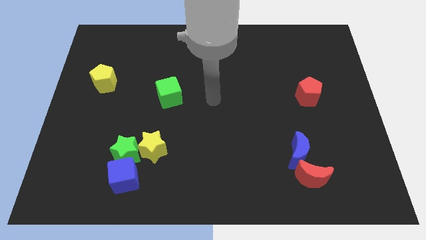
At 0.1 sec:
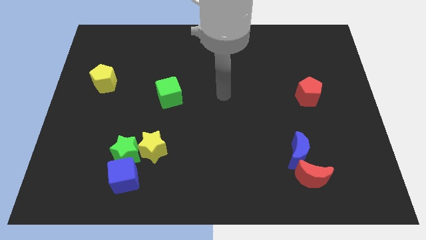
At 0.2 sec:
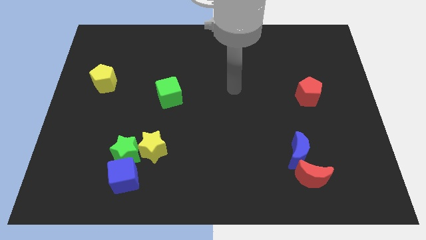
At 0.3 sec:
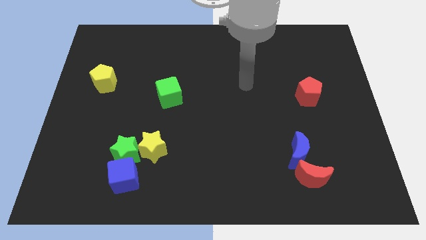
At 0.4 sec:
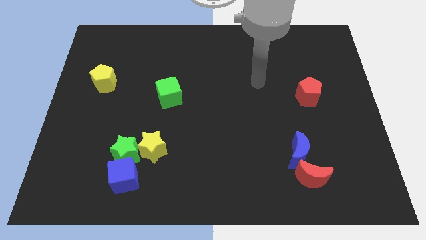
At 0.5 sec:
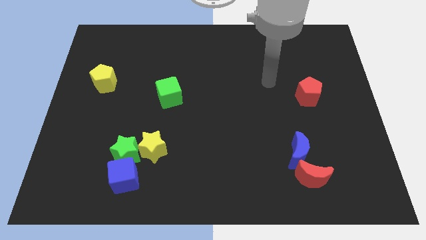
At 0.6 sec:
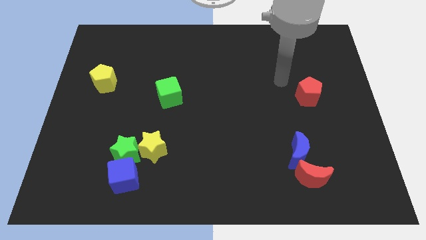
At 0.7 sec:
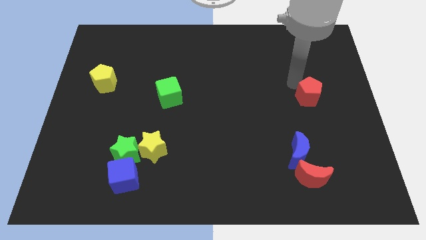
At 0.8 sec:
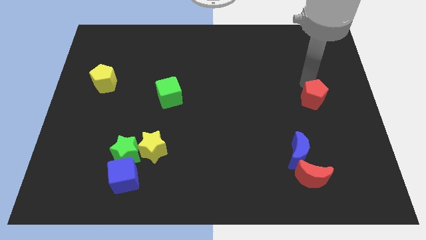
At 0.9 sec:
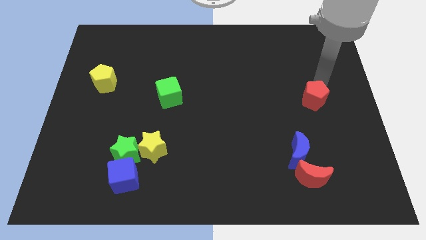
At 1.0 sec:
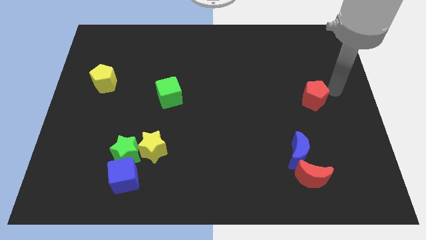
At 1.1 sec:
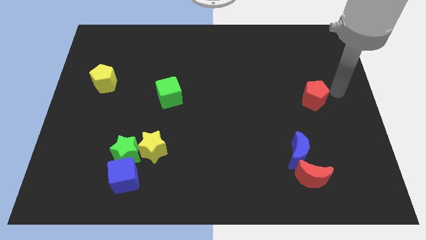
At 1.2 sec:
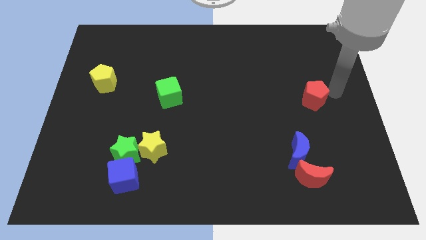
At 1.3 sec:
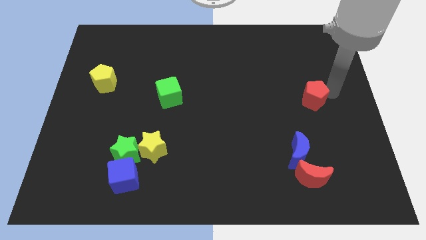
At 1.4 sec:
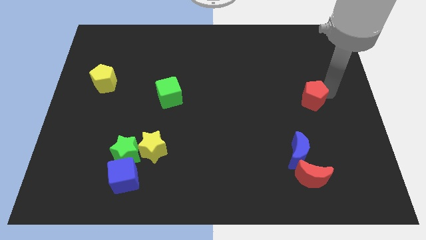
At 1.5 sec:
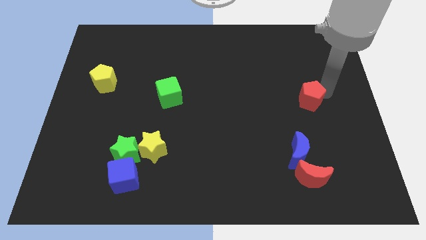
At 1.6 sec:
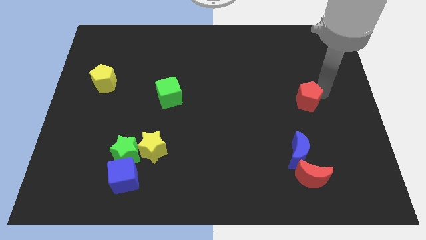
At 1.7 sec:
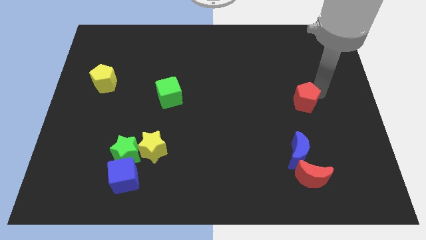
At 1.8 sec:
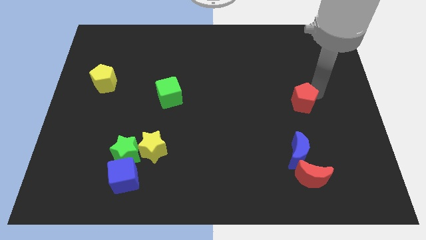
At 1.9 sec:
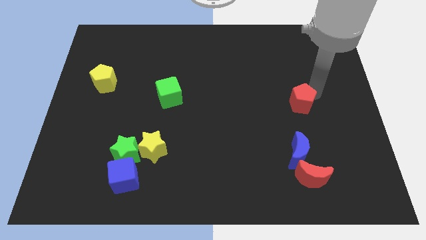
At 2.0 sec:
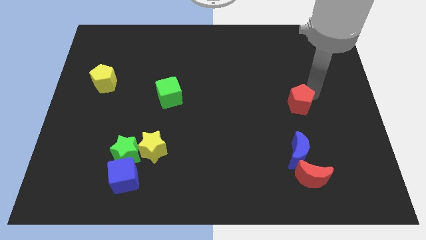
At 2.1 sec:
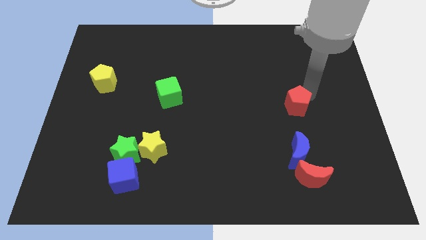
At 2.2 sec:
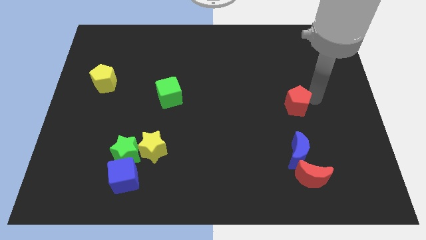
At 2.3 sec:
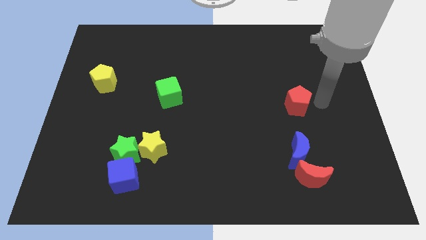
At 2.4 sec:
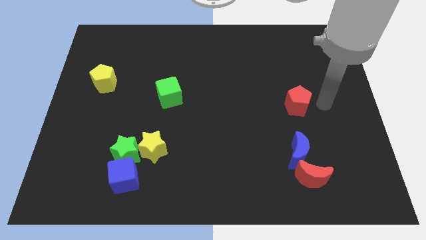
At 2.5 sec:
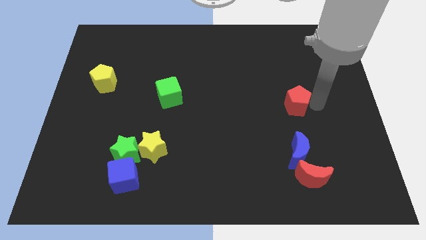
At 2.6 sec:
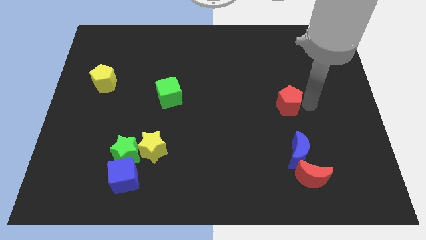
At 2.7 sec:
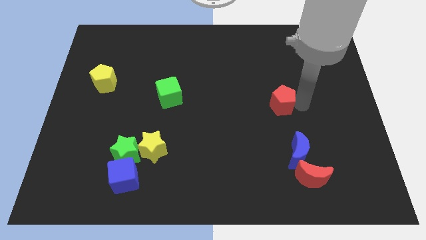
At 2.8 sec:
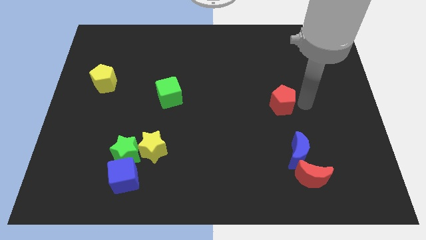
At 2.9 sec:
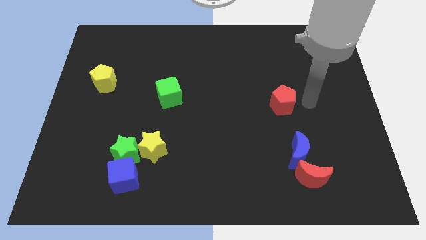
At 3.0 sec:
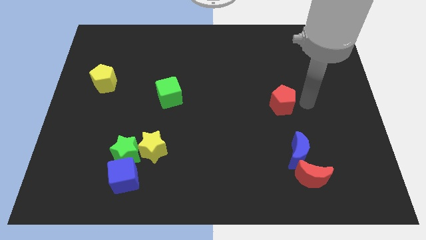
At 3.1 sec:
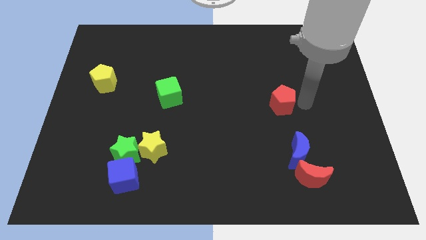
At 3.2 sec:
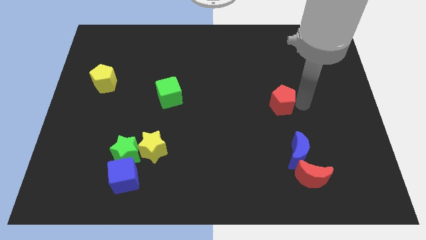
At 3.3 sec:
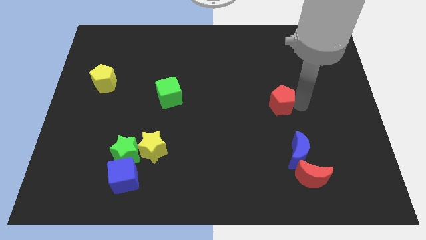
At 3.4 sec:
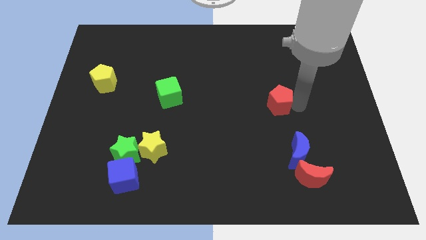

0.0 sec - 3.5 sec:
slightly move the red pentagon to the left

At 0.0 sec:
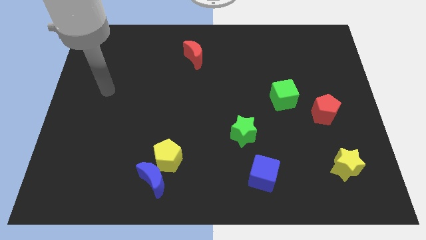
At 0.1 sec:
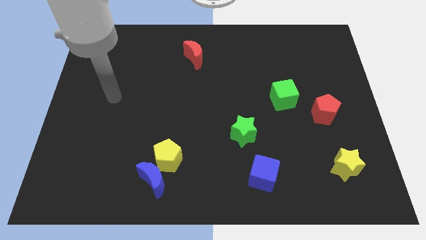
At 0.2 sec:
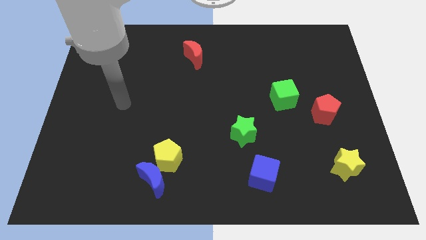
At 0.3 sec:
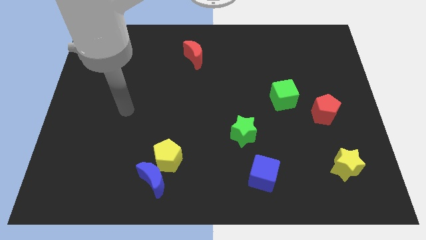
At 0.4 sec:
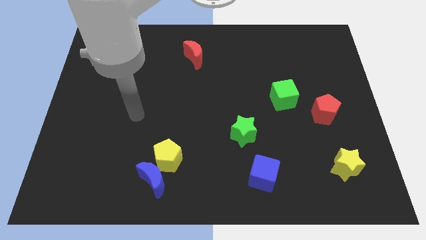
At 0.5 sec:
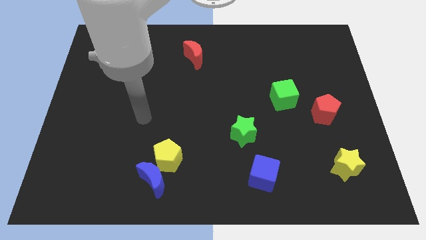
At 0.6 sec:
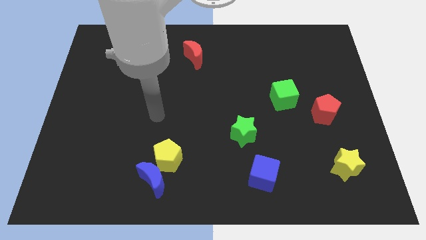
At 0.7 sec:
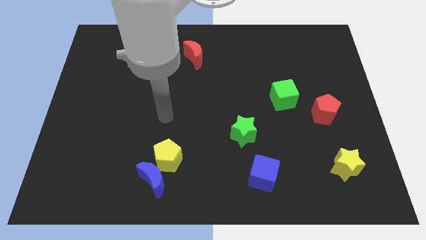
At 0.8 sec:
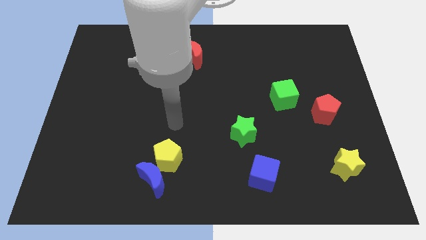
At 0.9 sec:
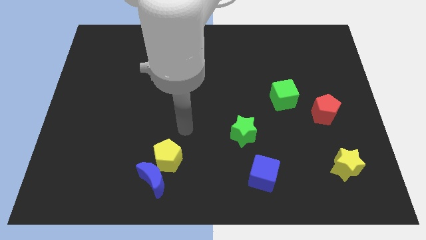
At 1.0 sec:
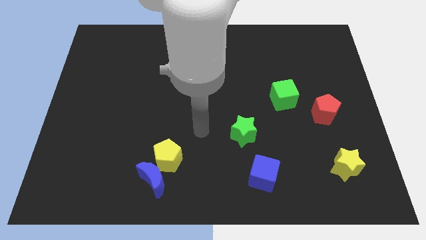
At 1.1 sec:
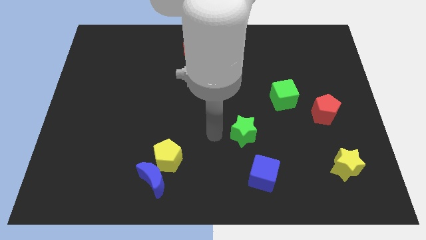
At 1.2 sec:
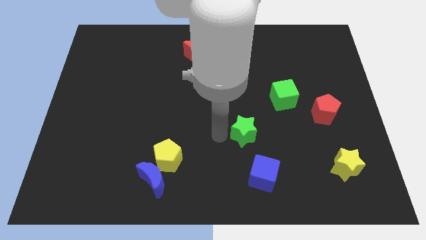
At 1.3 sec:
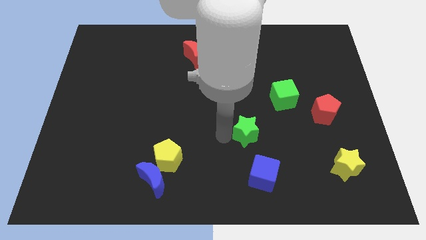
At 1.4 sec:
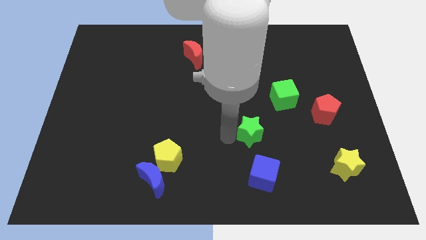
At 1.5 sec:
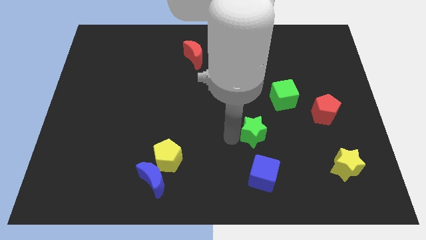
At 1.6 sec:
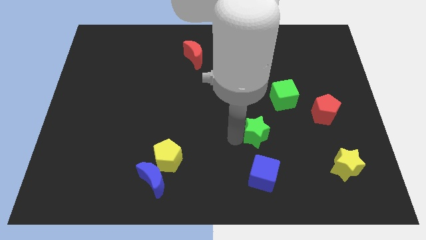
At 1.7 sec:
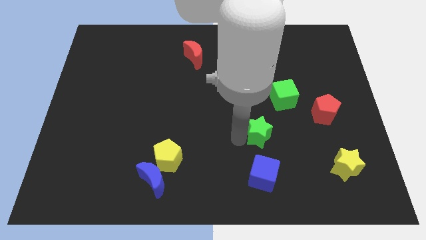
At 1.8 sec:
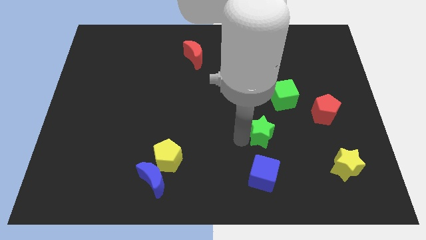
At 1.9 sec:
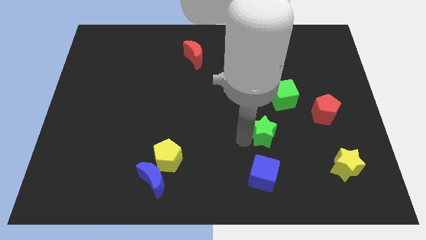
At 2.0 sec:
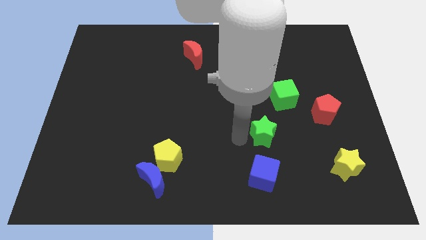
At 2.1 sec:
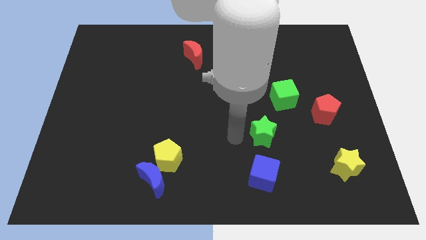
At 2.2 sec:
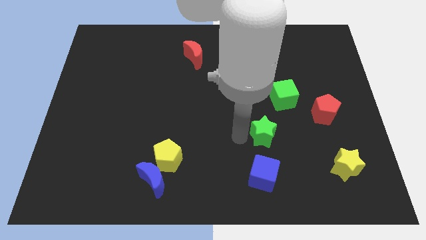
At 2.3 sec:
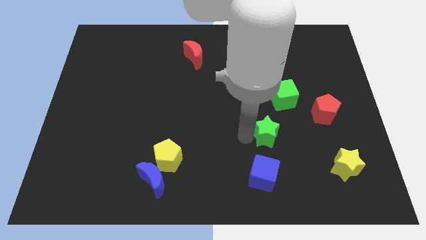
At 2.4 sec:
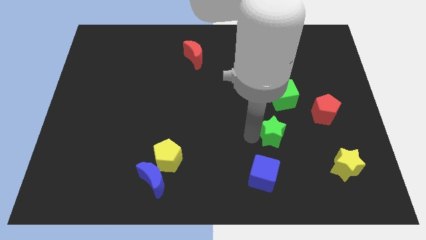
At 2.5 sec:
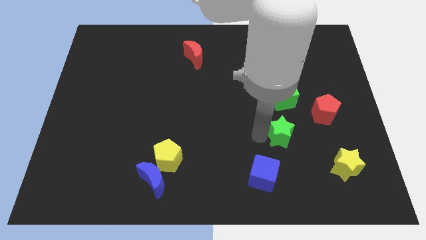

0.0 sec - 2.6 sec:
slide the green star a bit to the right

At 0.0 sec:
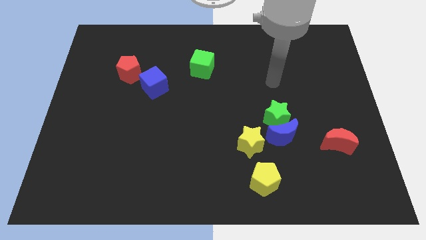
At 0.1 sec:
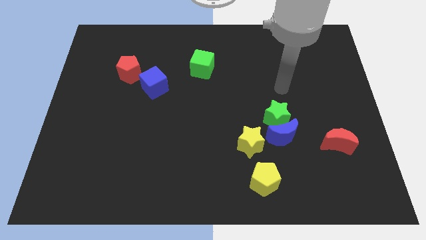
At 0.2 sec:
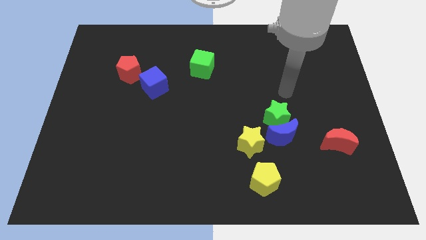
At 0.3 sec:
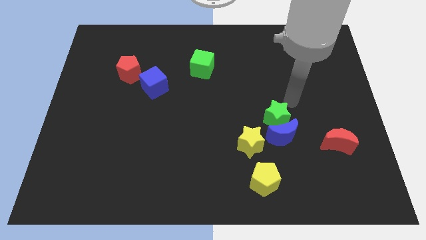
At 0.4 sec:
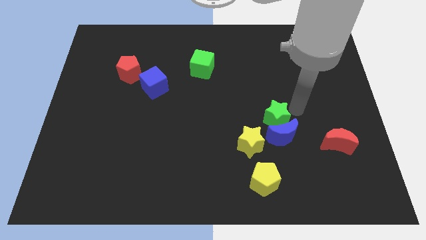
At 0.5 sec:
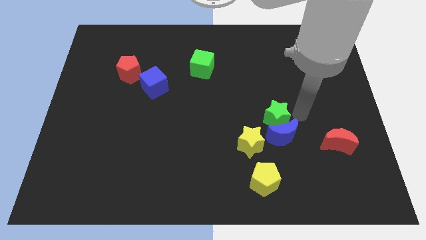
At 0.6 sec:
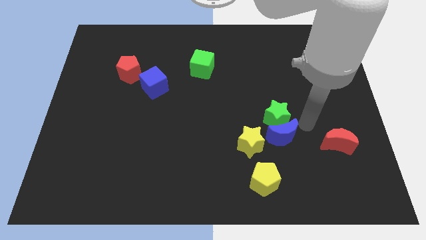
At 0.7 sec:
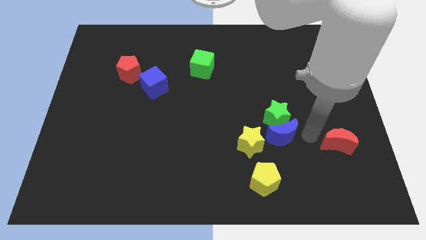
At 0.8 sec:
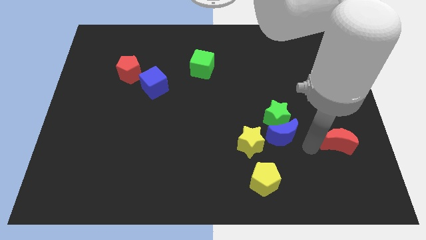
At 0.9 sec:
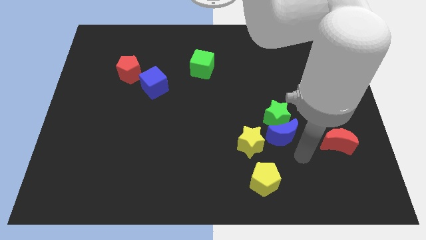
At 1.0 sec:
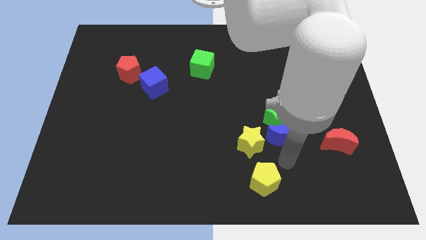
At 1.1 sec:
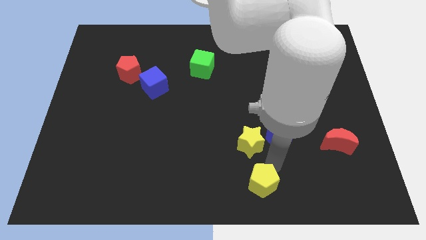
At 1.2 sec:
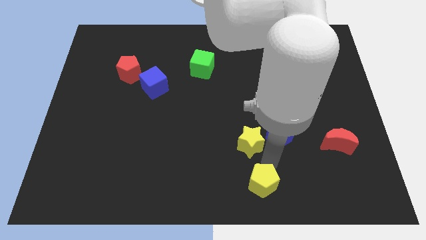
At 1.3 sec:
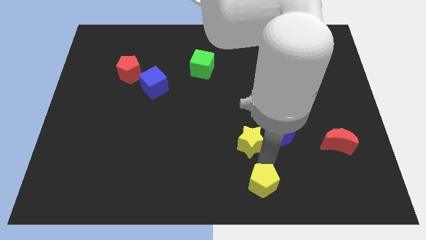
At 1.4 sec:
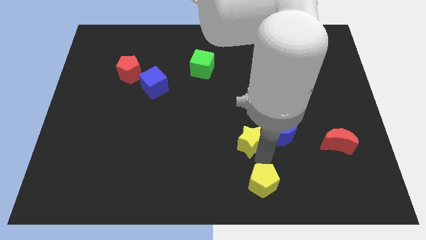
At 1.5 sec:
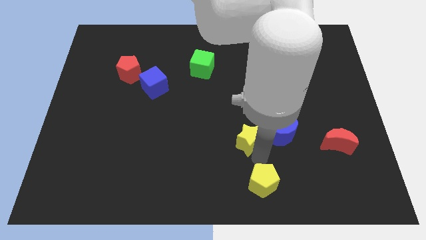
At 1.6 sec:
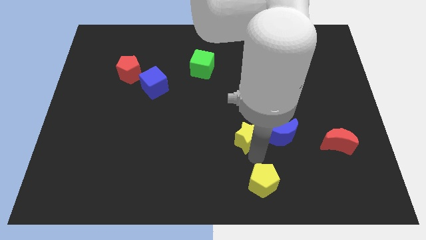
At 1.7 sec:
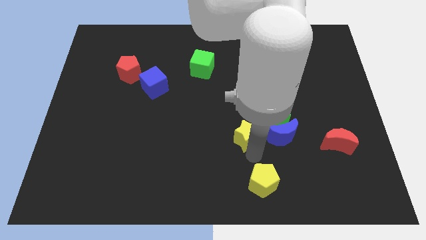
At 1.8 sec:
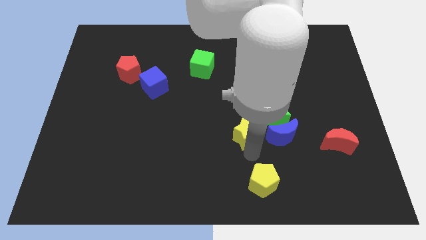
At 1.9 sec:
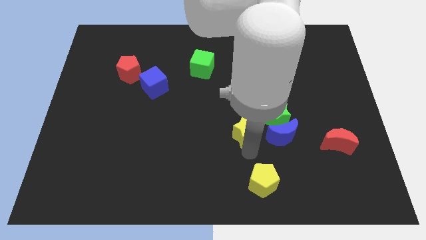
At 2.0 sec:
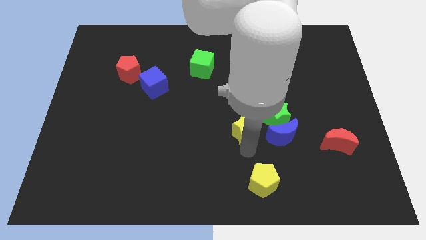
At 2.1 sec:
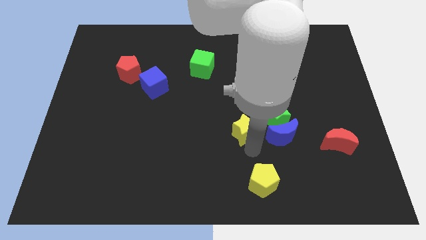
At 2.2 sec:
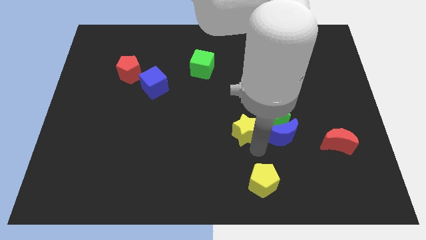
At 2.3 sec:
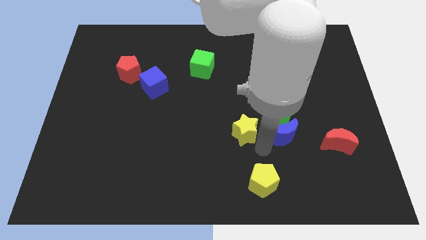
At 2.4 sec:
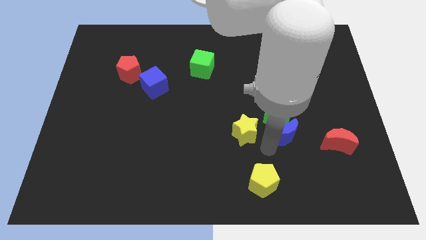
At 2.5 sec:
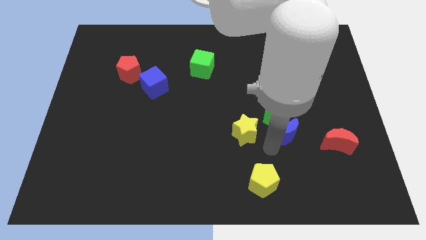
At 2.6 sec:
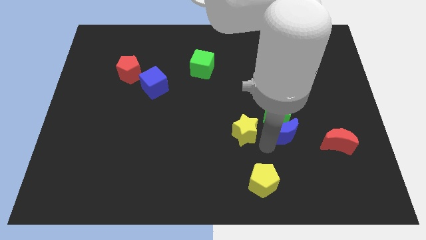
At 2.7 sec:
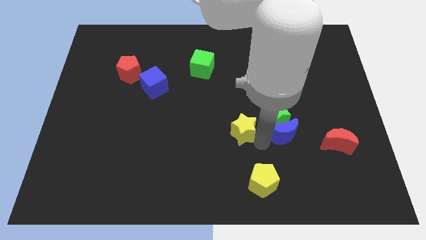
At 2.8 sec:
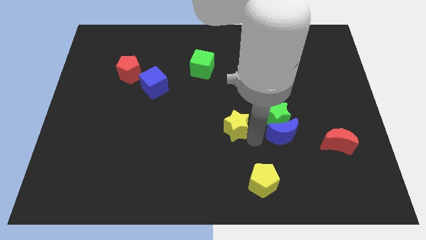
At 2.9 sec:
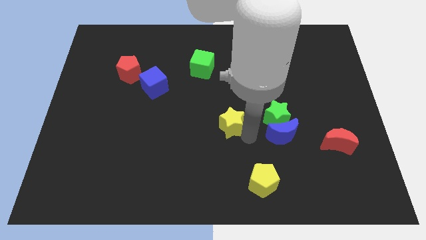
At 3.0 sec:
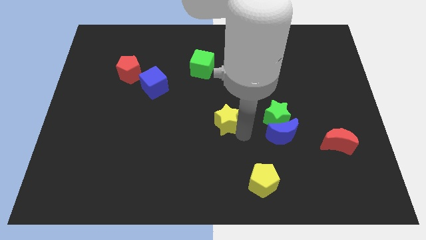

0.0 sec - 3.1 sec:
move the yellow star a little diagonally upwards and to the left
